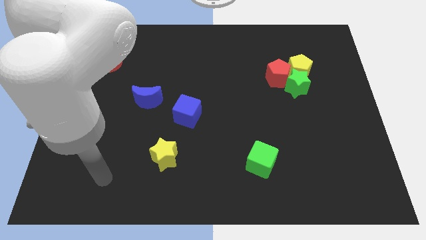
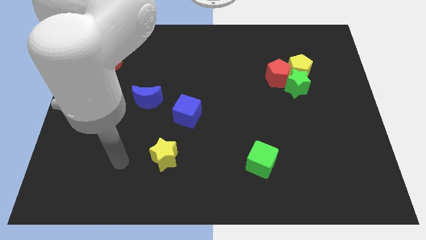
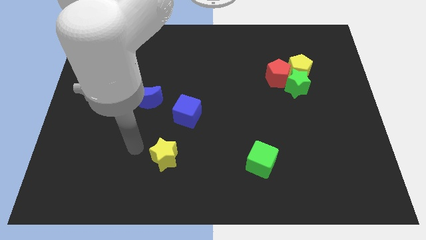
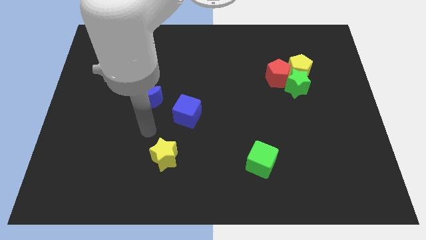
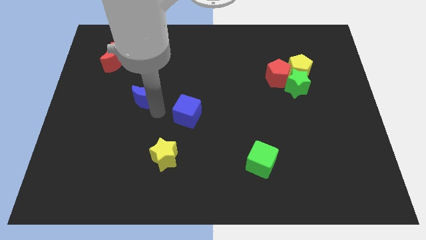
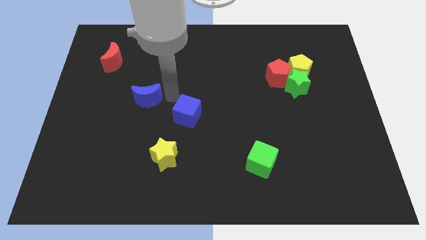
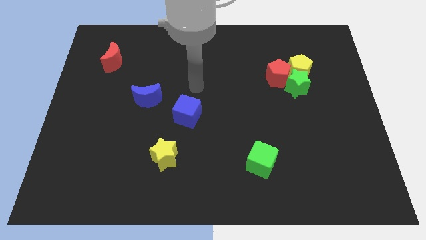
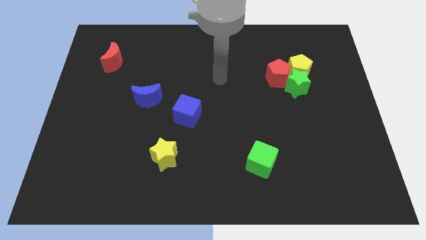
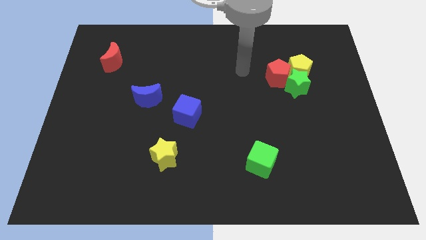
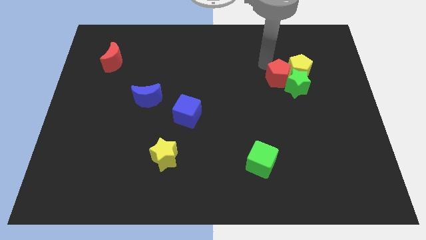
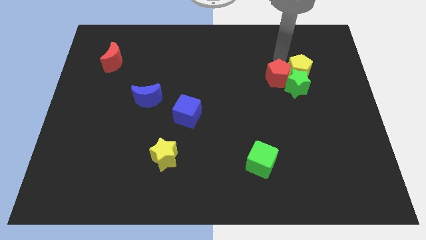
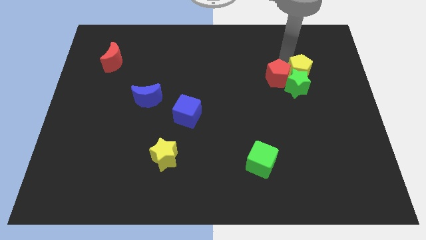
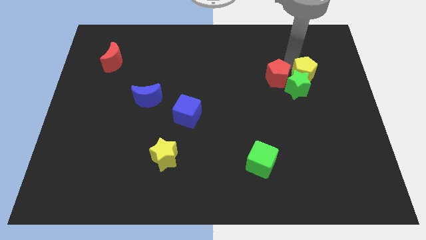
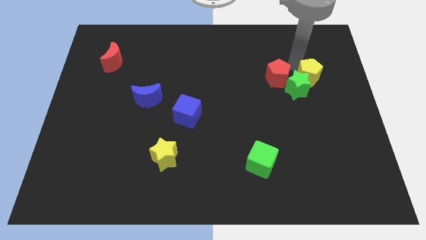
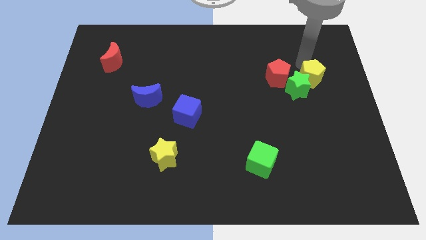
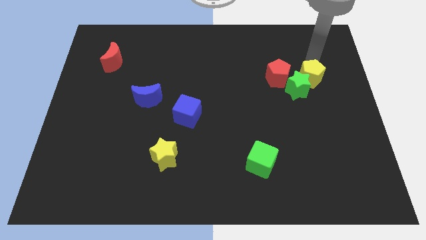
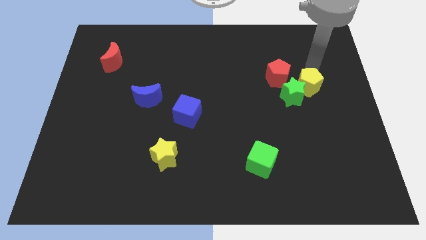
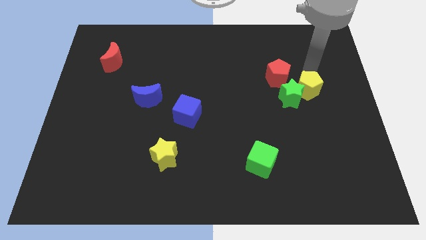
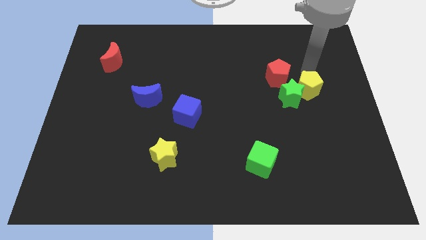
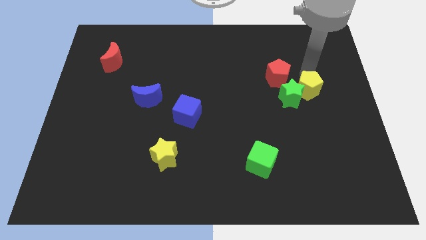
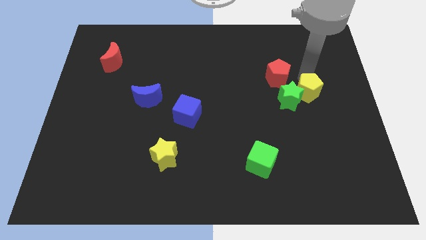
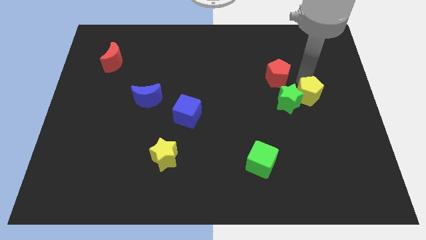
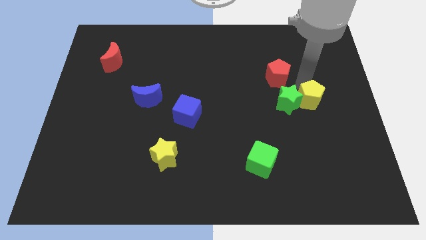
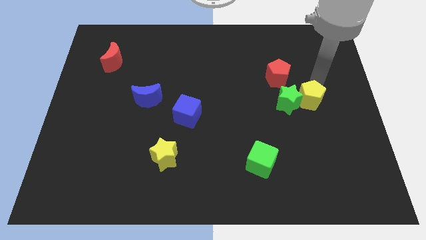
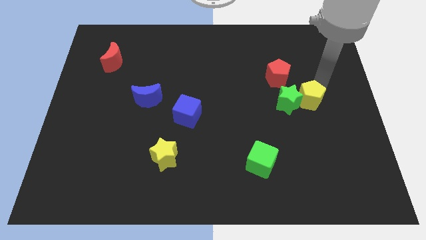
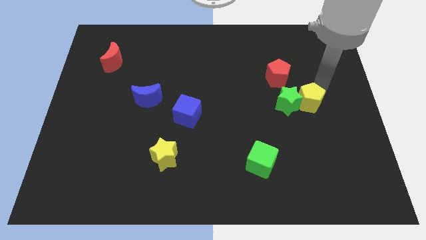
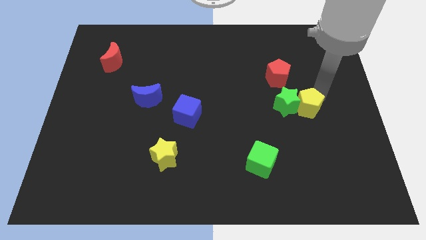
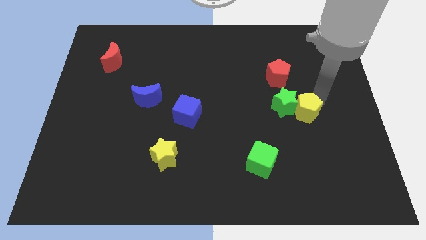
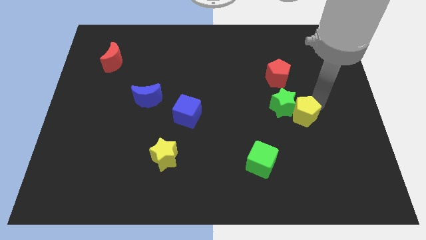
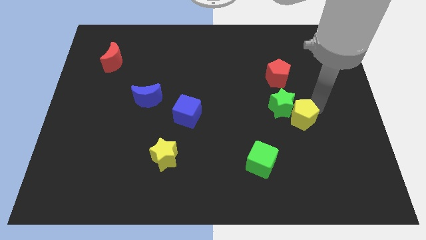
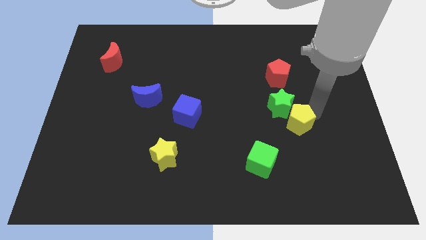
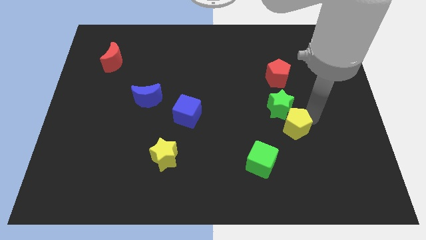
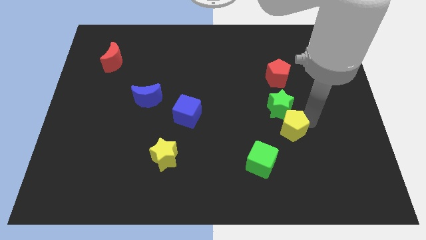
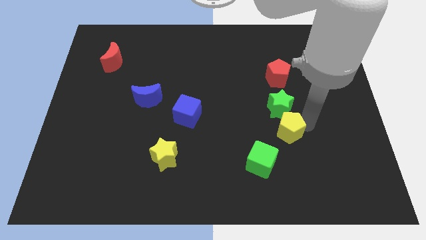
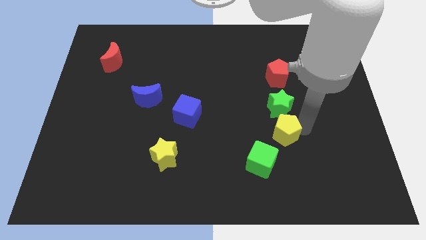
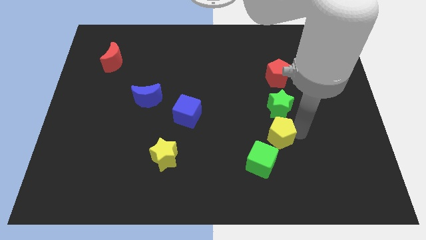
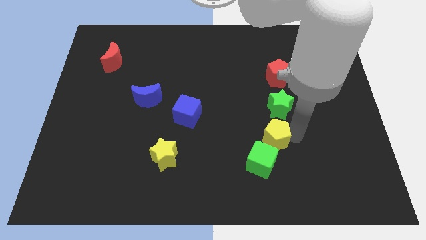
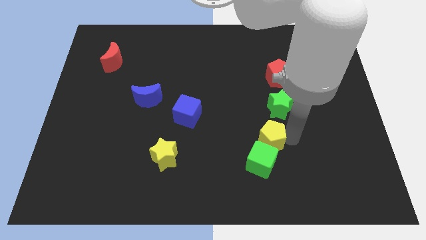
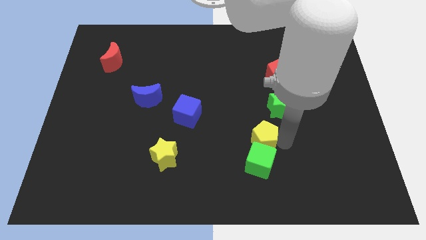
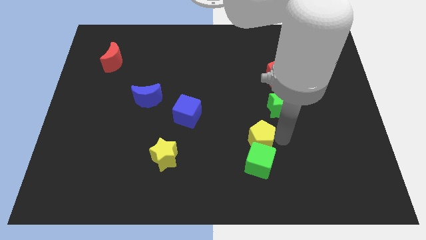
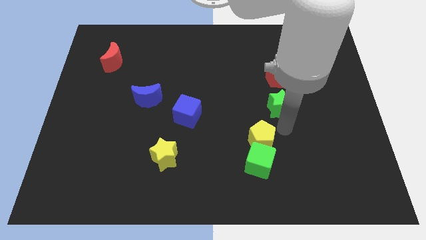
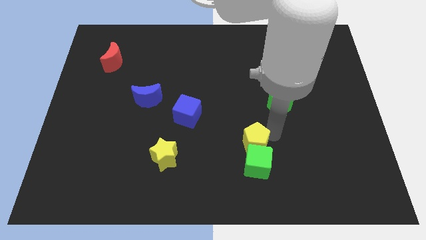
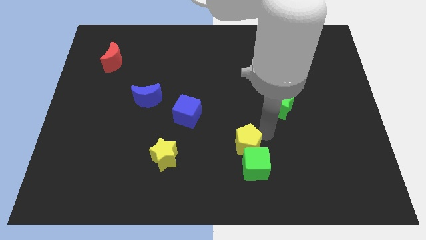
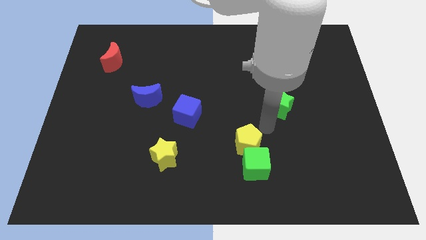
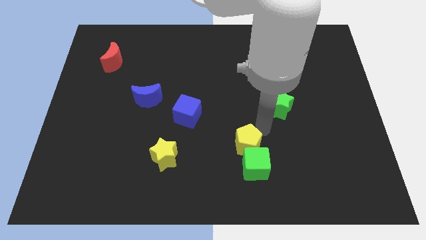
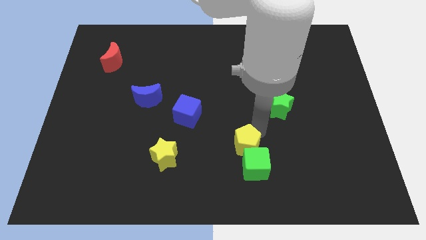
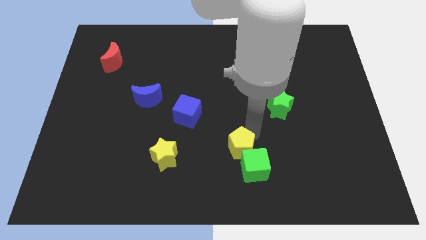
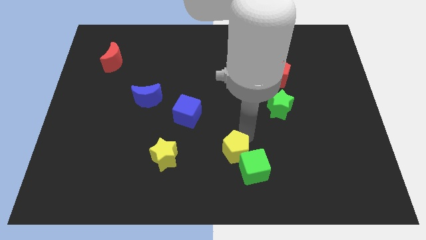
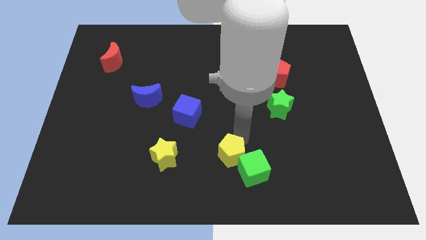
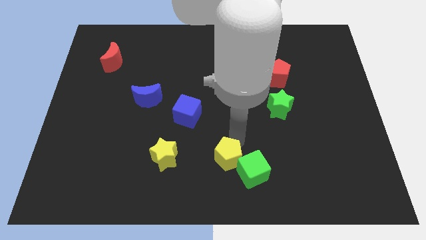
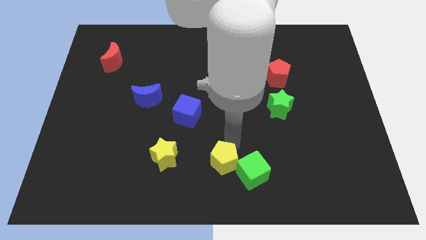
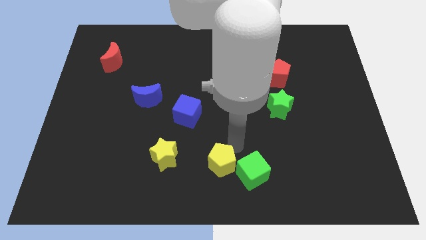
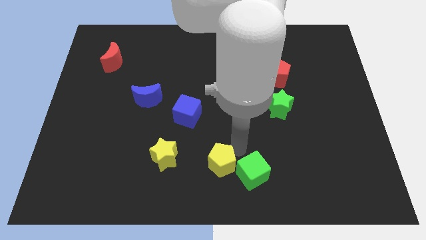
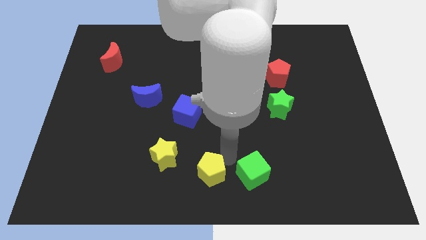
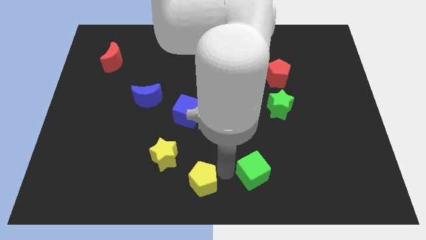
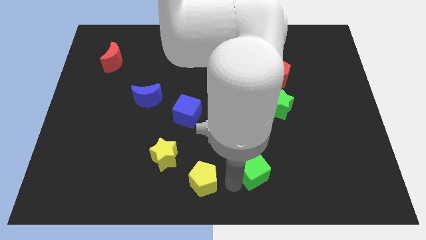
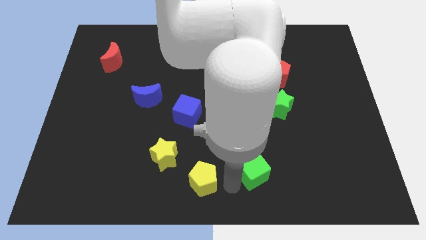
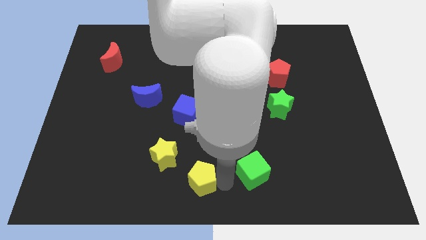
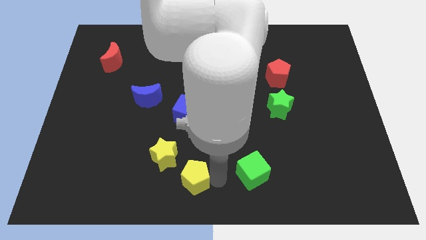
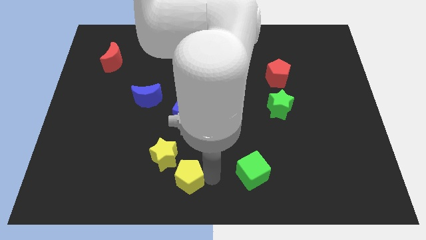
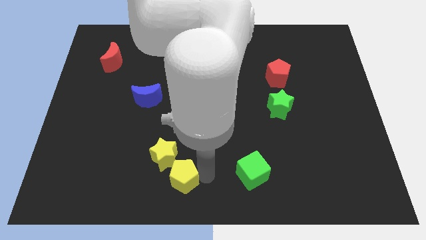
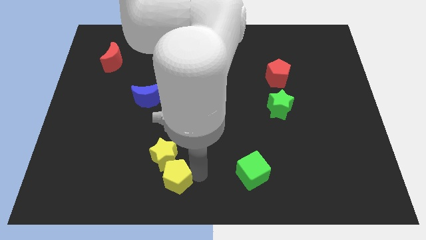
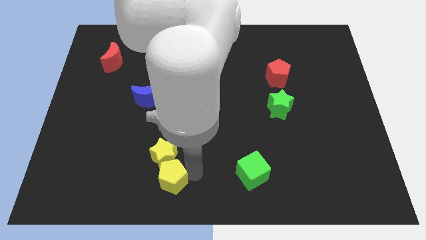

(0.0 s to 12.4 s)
slide the yellow pentagon to the bottom left side of the yellow star

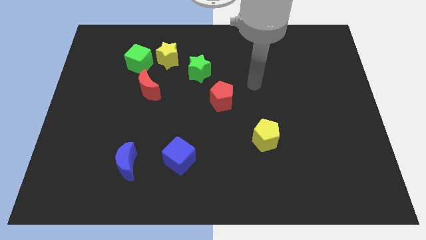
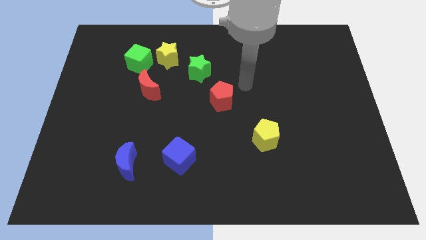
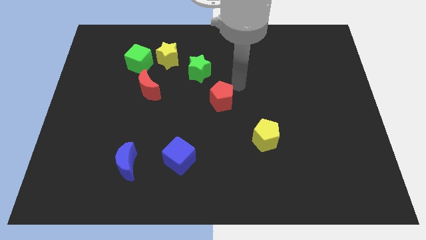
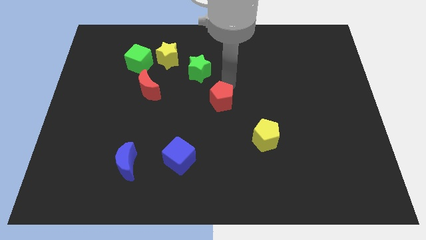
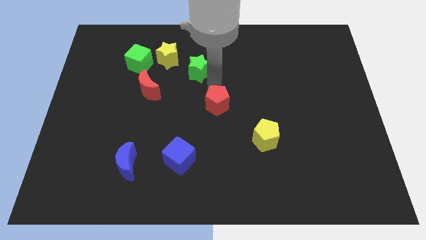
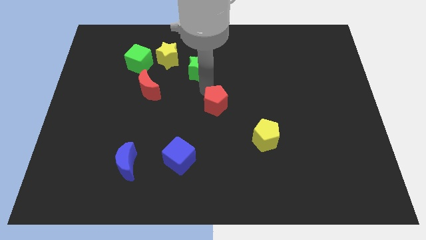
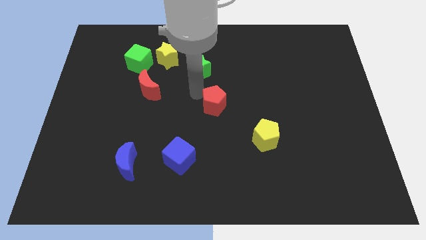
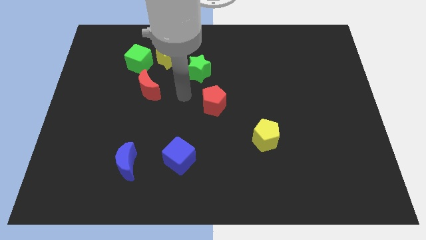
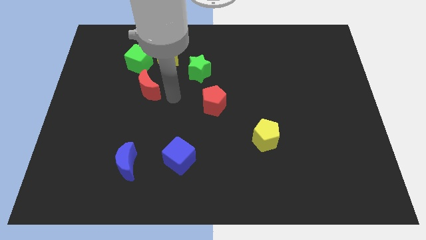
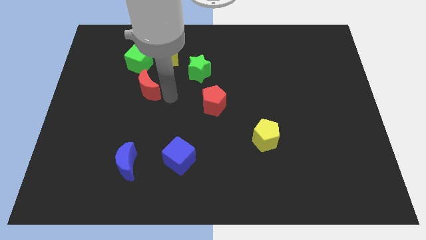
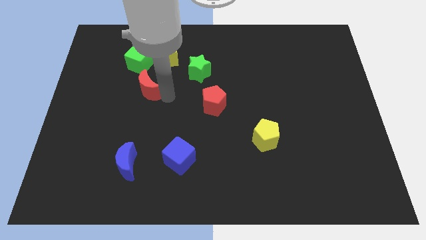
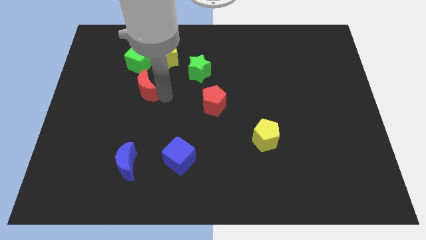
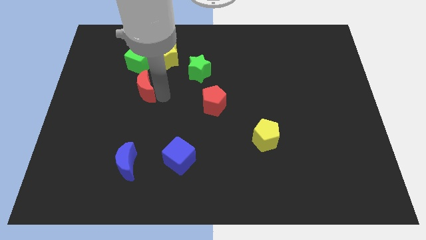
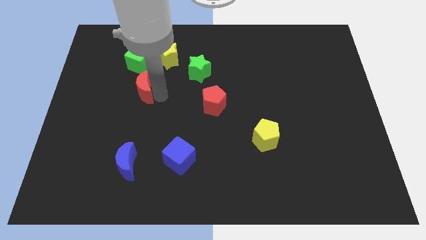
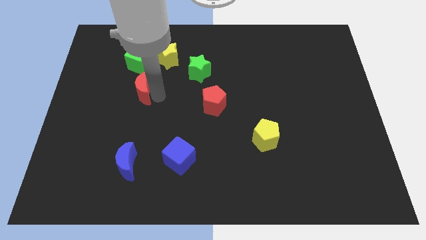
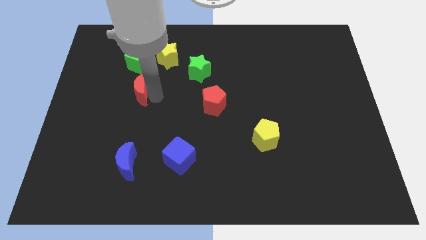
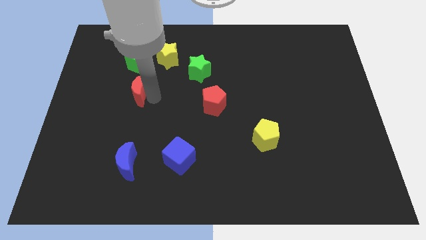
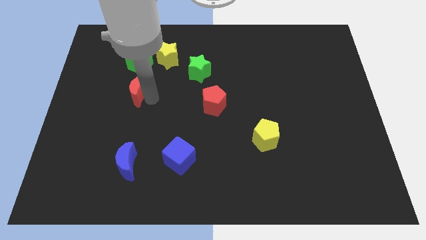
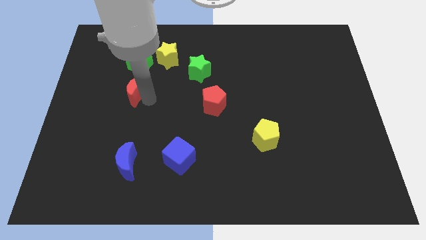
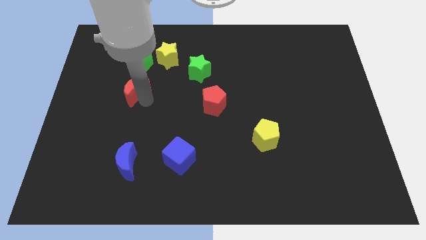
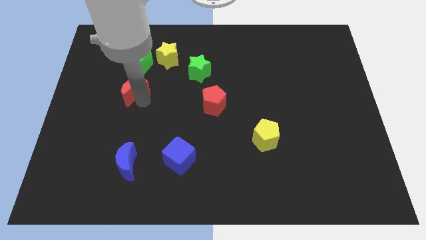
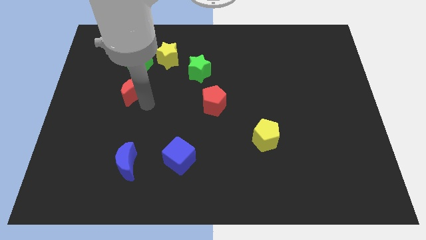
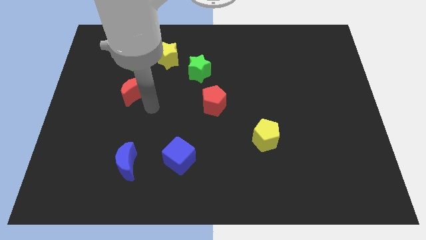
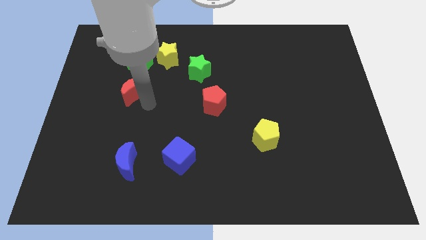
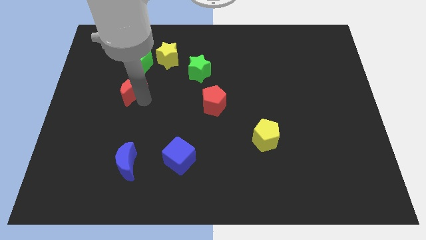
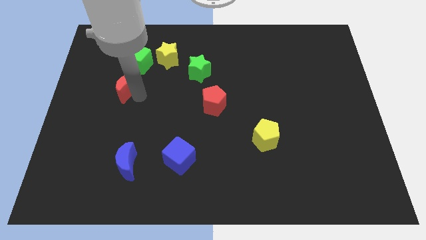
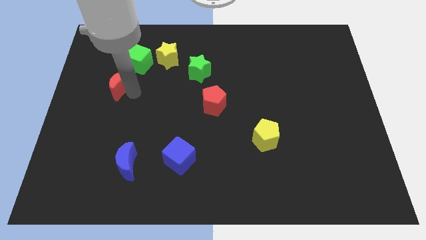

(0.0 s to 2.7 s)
push the red moon diagonally down and to the left of the green cube
